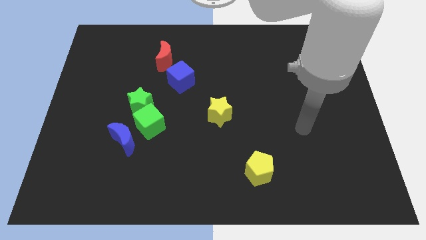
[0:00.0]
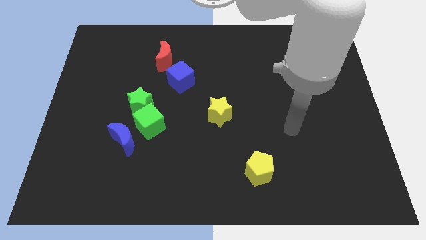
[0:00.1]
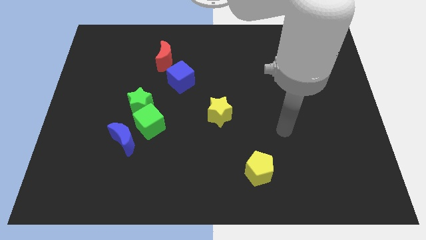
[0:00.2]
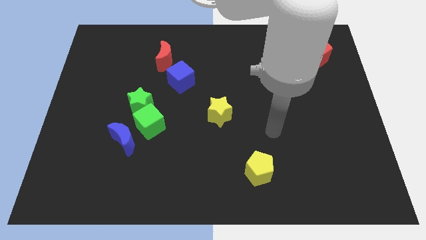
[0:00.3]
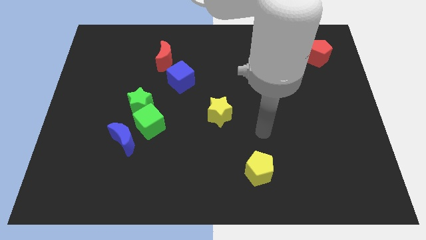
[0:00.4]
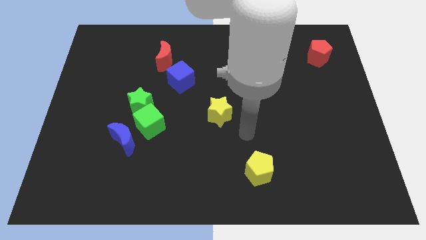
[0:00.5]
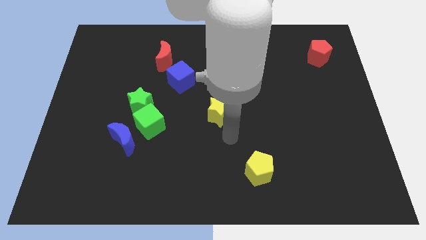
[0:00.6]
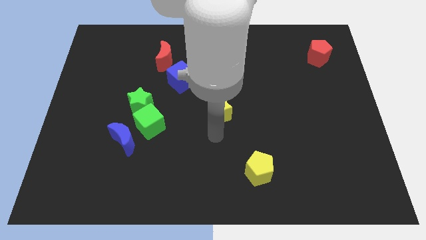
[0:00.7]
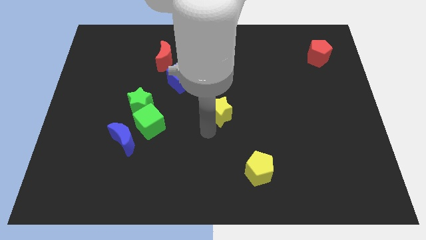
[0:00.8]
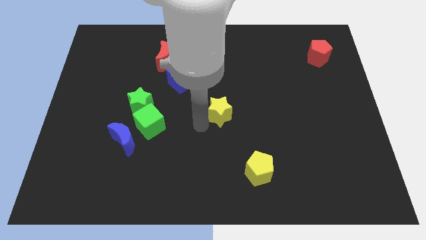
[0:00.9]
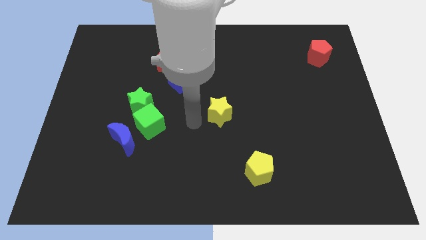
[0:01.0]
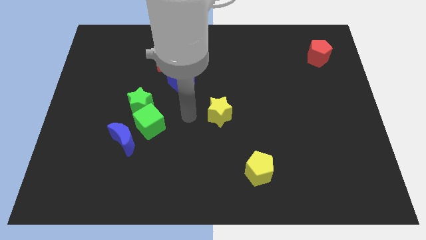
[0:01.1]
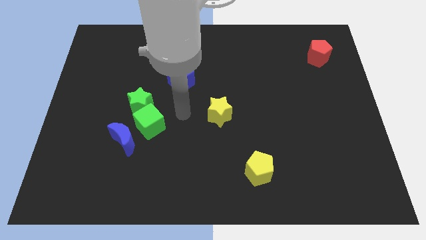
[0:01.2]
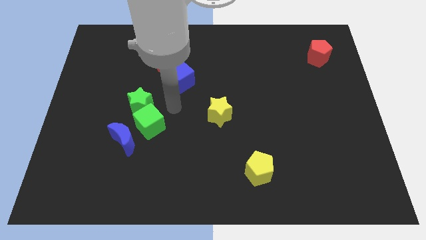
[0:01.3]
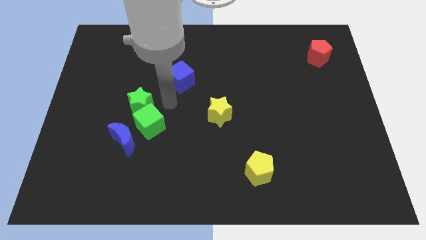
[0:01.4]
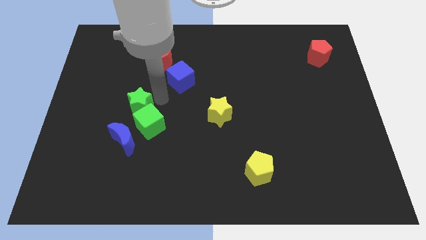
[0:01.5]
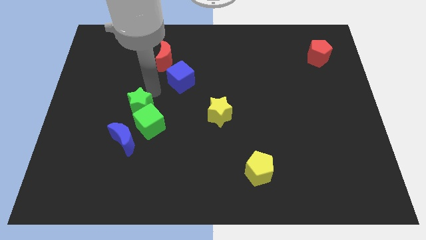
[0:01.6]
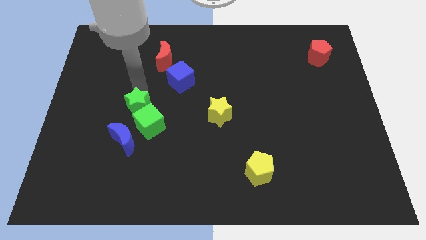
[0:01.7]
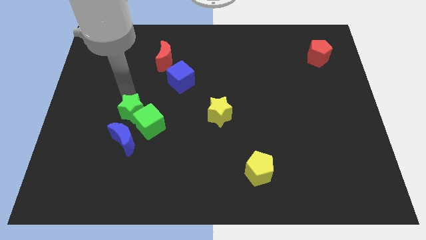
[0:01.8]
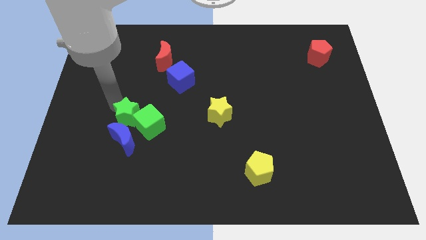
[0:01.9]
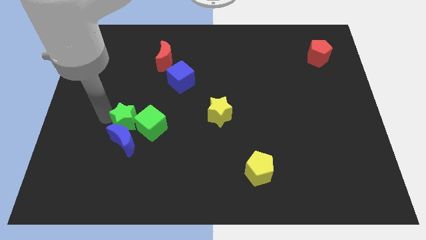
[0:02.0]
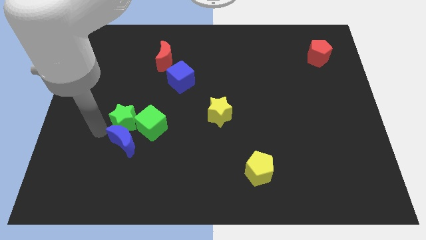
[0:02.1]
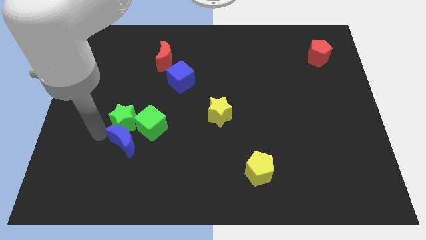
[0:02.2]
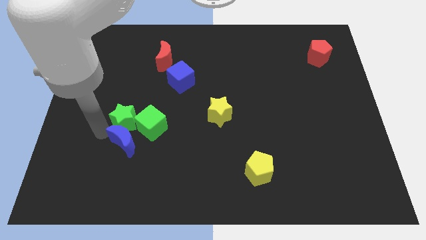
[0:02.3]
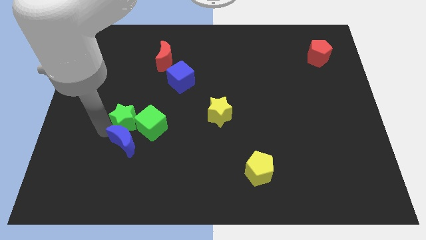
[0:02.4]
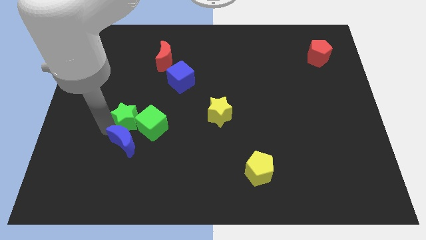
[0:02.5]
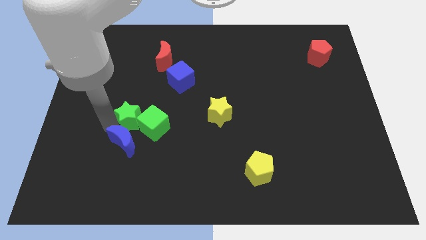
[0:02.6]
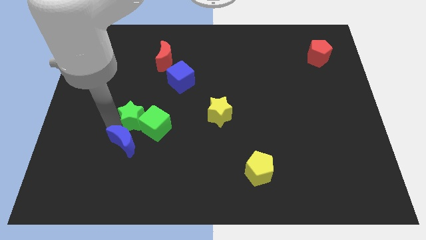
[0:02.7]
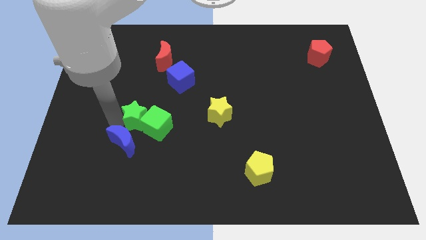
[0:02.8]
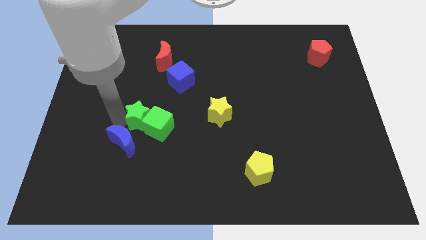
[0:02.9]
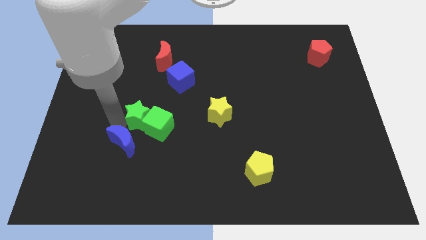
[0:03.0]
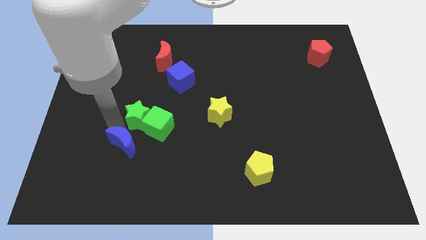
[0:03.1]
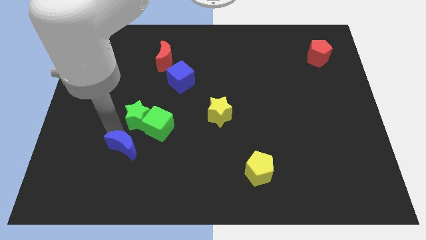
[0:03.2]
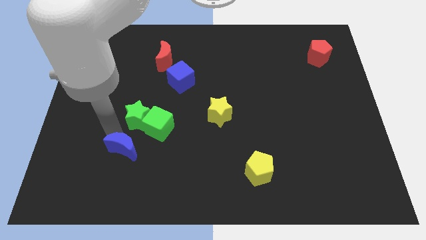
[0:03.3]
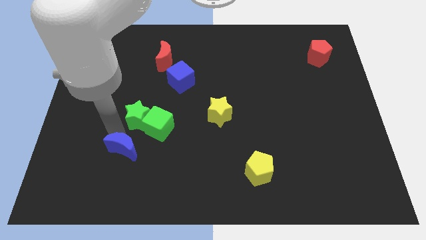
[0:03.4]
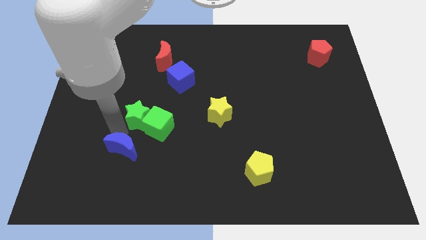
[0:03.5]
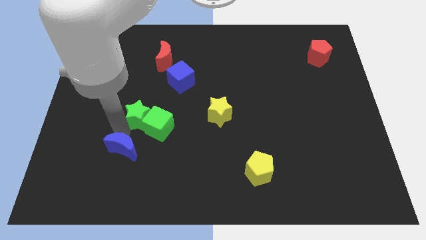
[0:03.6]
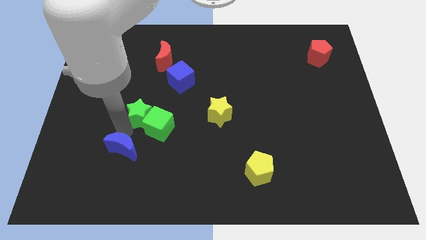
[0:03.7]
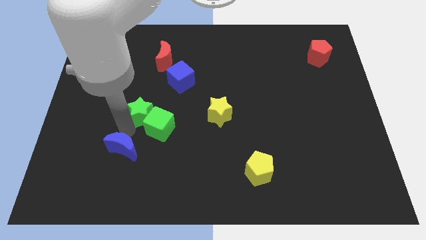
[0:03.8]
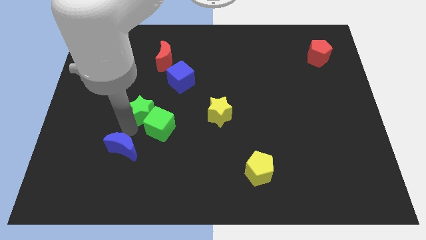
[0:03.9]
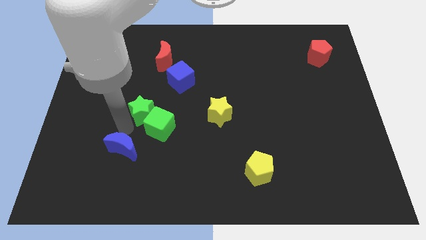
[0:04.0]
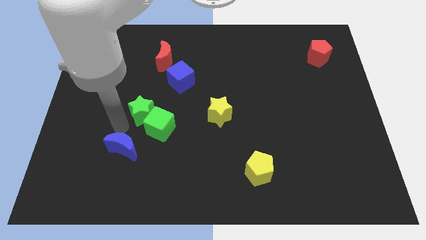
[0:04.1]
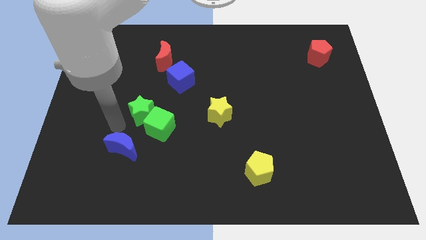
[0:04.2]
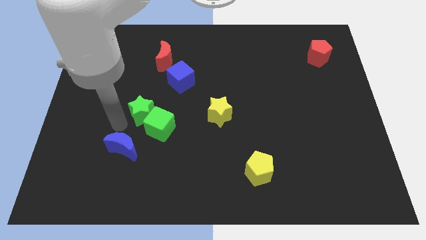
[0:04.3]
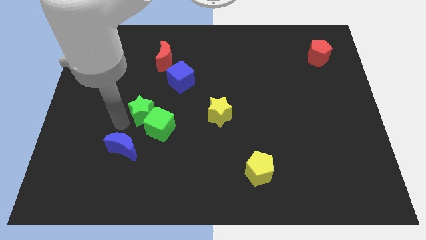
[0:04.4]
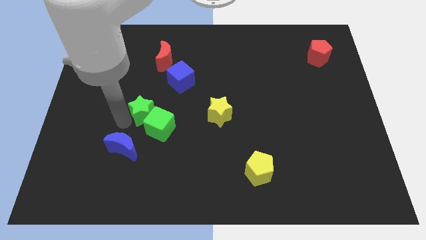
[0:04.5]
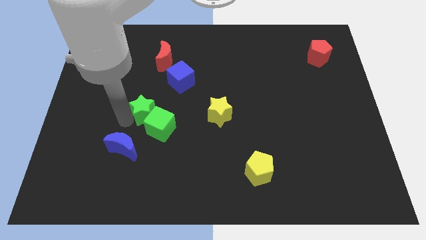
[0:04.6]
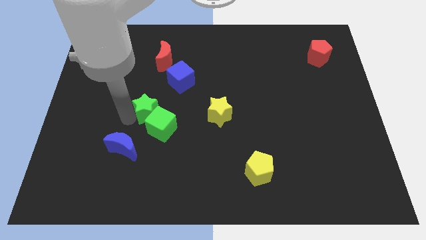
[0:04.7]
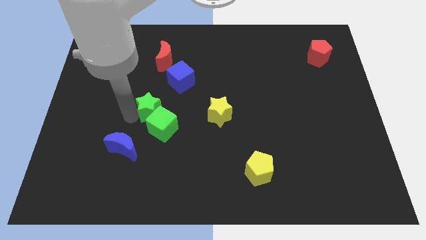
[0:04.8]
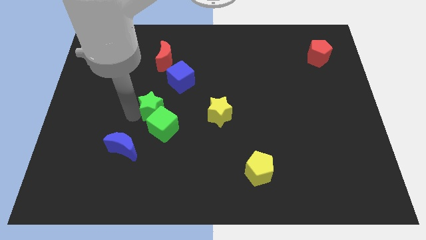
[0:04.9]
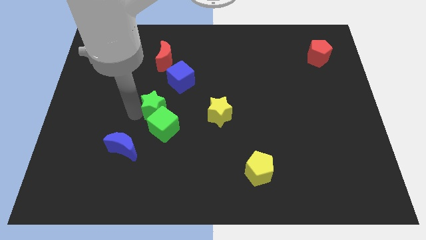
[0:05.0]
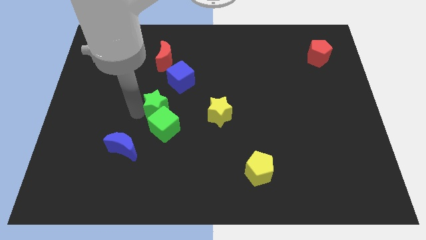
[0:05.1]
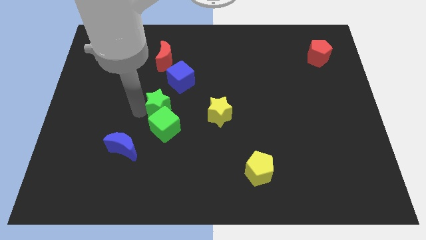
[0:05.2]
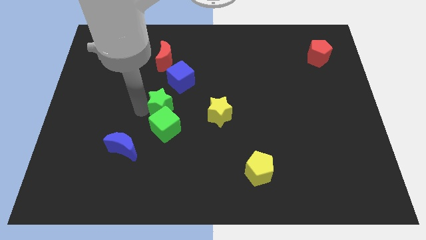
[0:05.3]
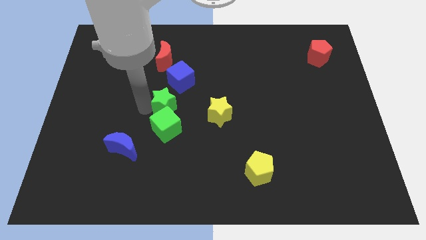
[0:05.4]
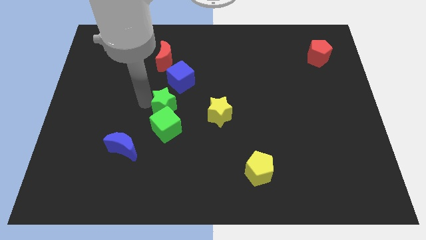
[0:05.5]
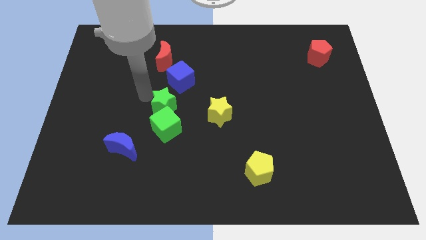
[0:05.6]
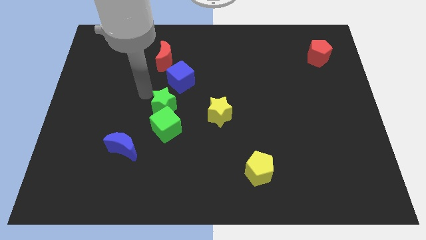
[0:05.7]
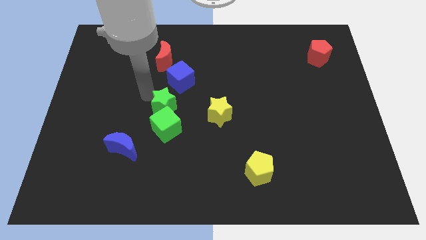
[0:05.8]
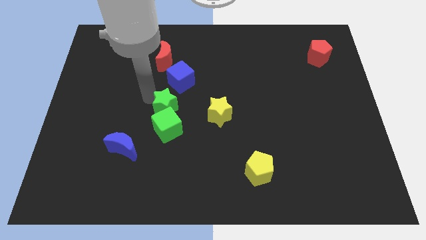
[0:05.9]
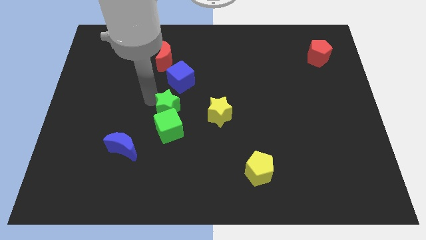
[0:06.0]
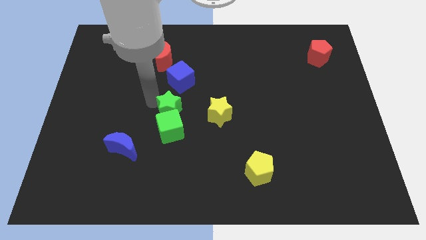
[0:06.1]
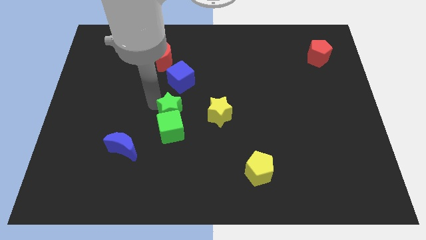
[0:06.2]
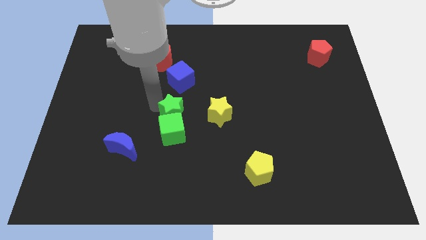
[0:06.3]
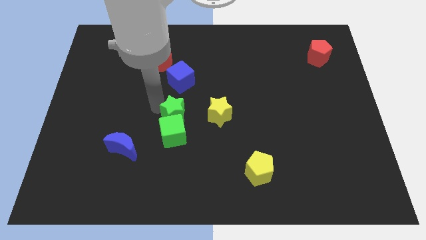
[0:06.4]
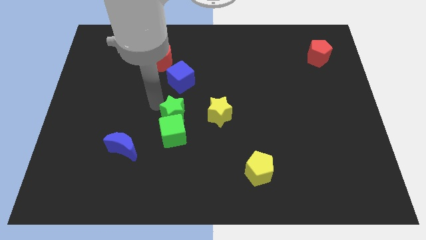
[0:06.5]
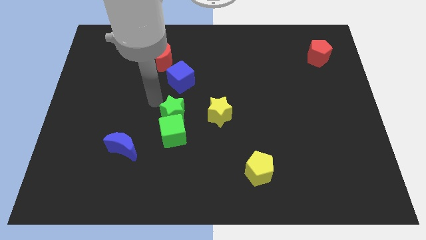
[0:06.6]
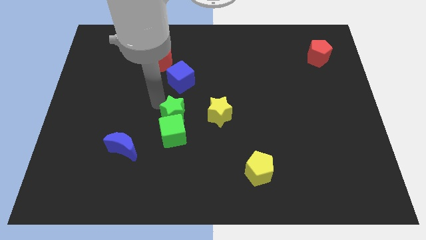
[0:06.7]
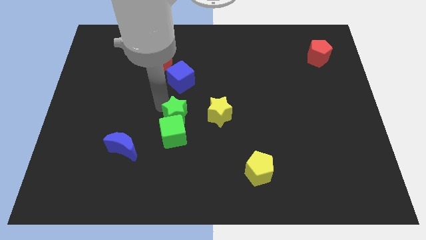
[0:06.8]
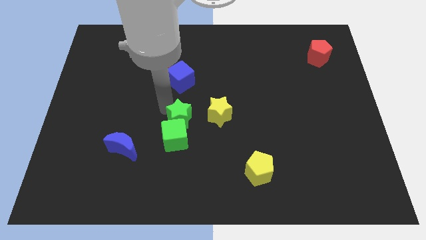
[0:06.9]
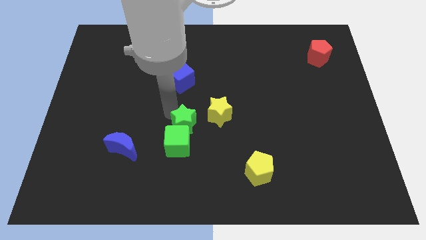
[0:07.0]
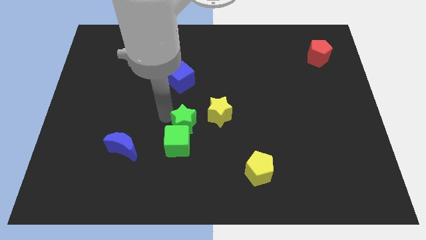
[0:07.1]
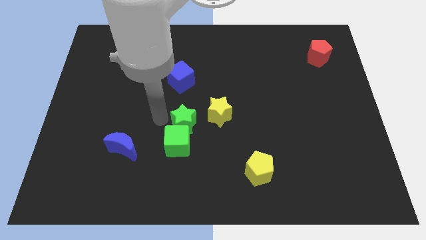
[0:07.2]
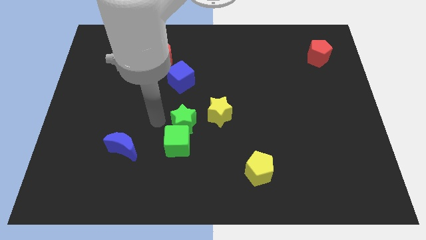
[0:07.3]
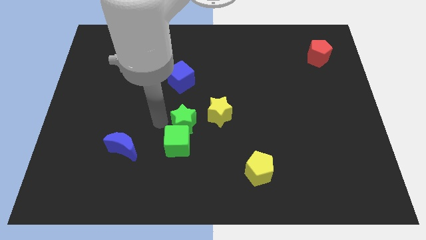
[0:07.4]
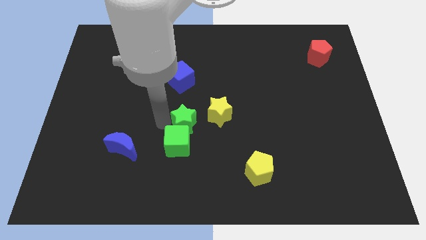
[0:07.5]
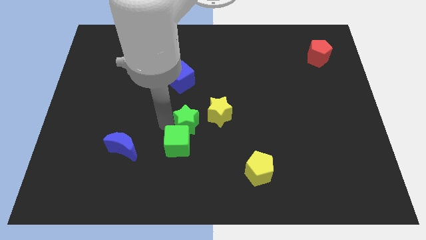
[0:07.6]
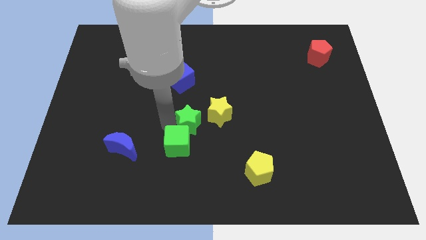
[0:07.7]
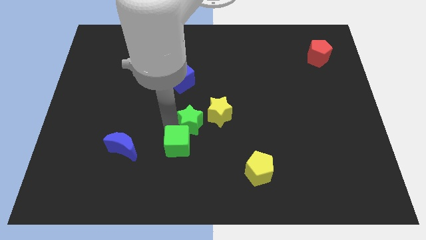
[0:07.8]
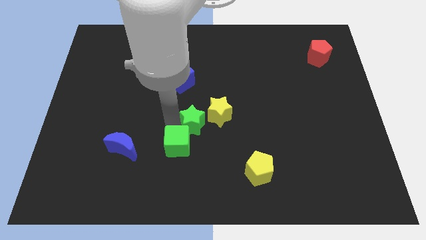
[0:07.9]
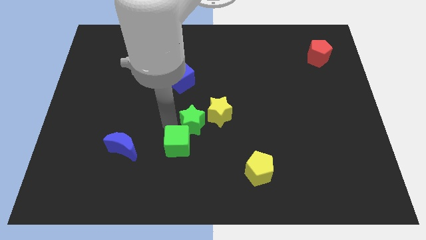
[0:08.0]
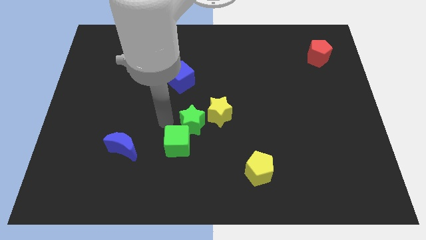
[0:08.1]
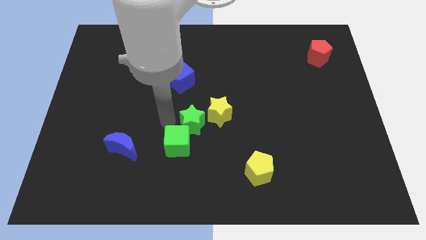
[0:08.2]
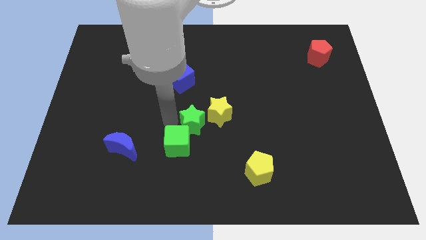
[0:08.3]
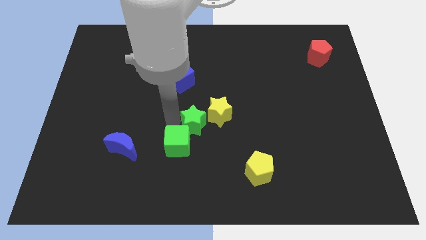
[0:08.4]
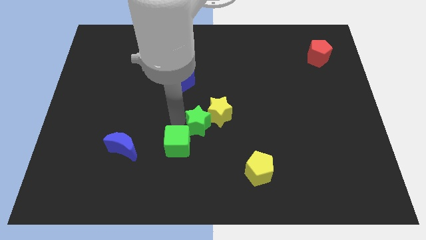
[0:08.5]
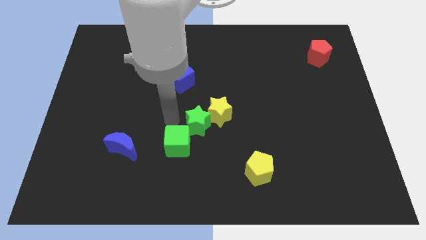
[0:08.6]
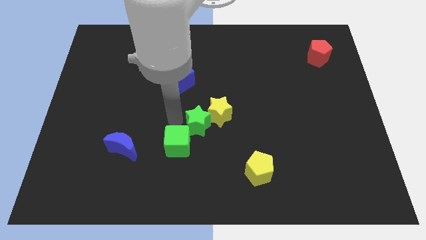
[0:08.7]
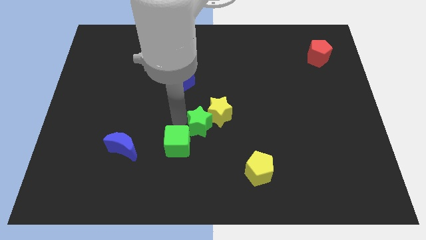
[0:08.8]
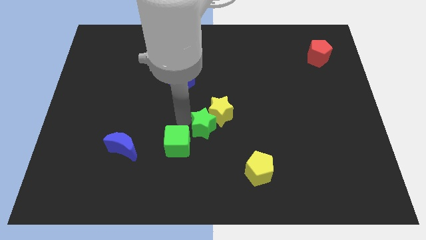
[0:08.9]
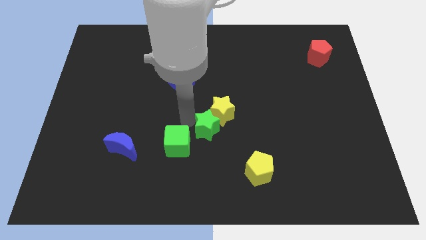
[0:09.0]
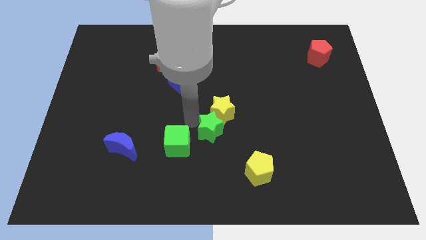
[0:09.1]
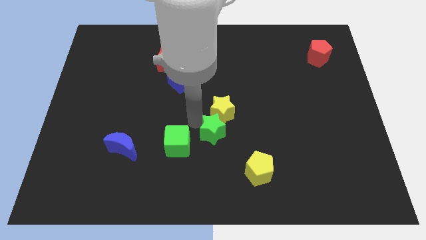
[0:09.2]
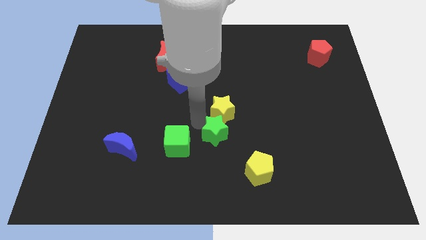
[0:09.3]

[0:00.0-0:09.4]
slide the green star diagonally down and to the right of the yellow star
